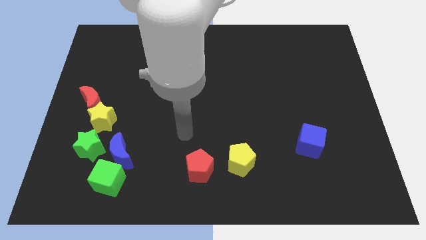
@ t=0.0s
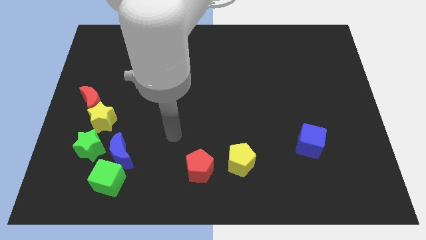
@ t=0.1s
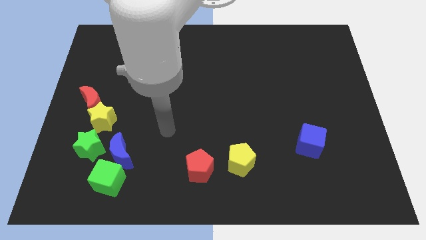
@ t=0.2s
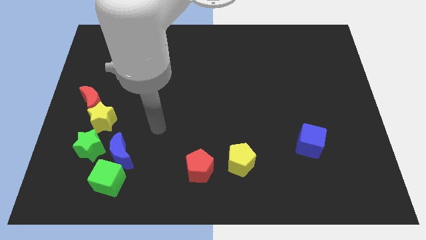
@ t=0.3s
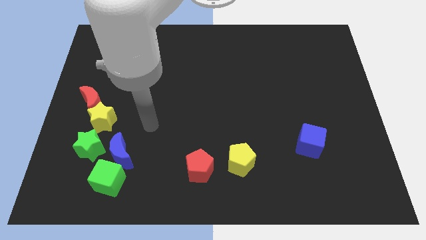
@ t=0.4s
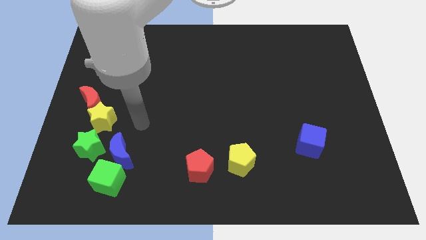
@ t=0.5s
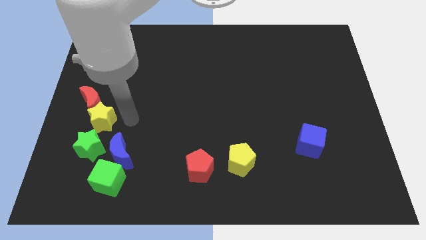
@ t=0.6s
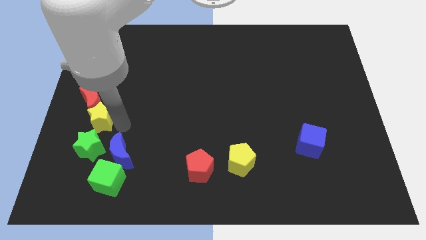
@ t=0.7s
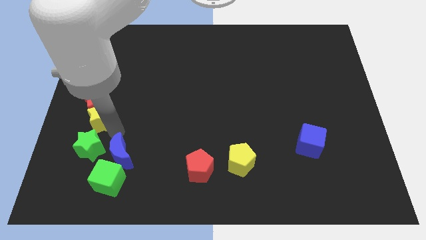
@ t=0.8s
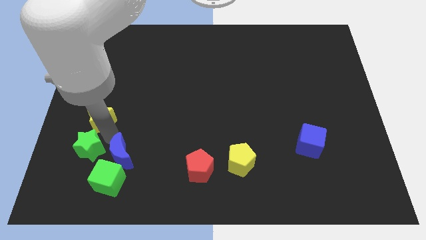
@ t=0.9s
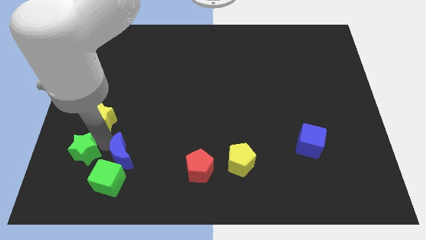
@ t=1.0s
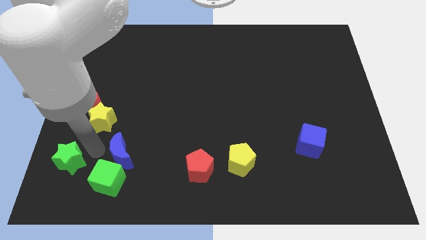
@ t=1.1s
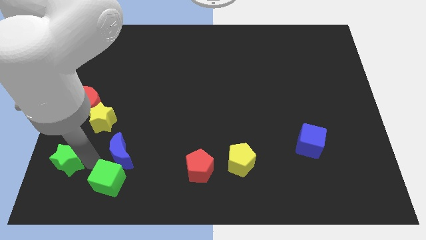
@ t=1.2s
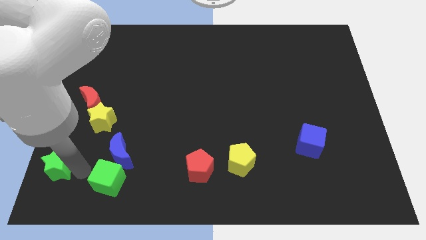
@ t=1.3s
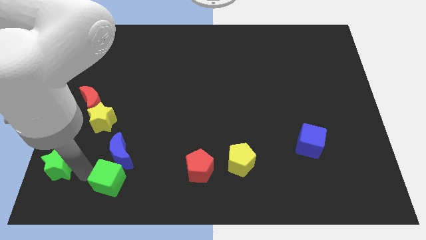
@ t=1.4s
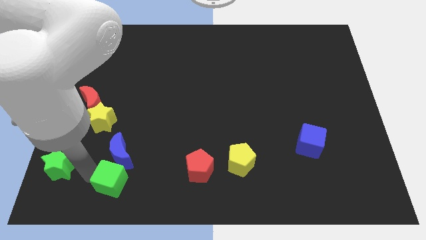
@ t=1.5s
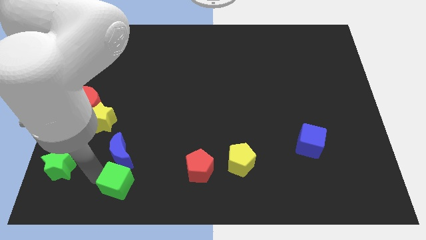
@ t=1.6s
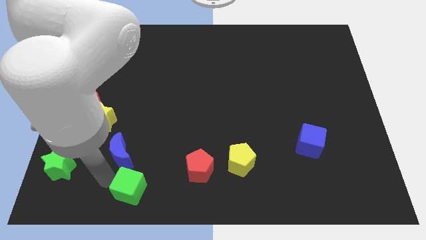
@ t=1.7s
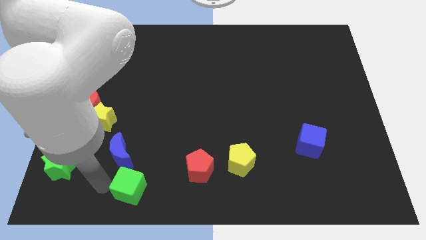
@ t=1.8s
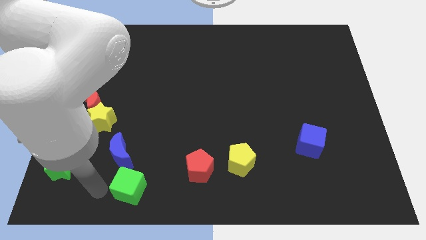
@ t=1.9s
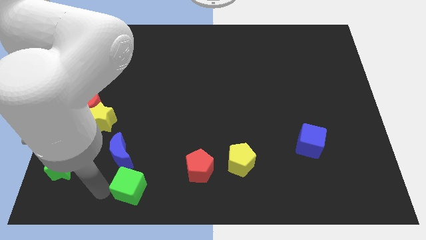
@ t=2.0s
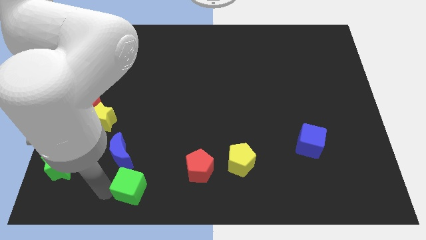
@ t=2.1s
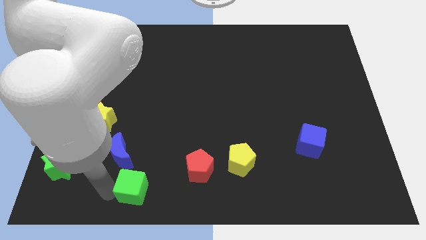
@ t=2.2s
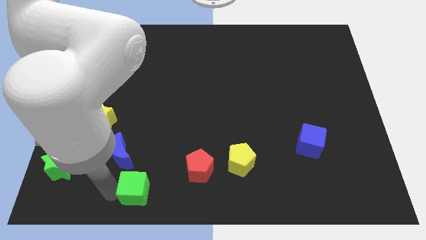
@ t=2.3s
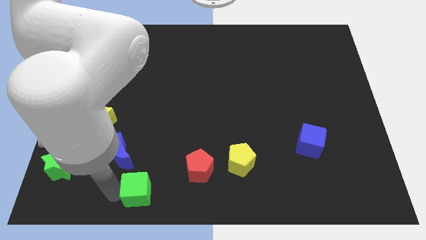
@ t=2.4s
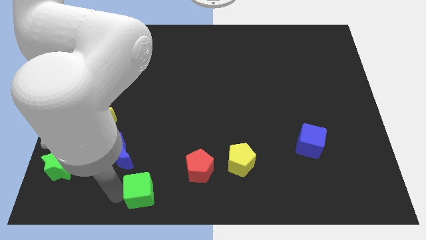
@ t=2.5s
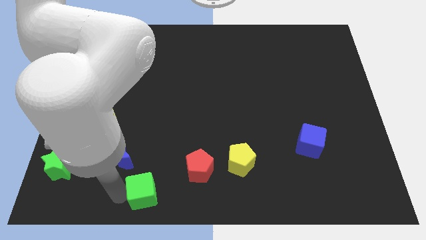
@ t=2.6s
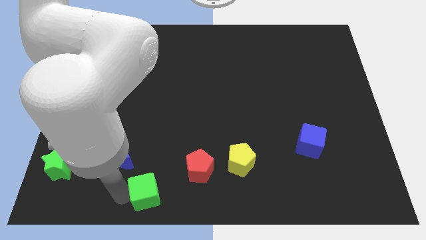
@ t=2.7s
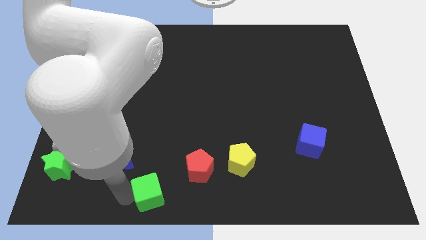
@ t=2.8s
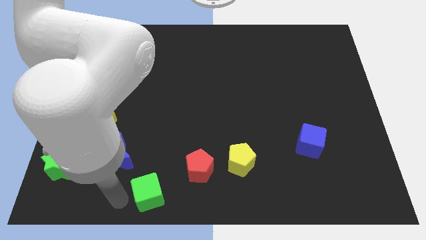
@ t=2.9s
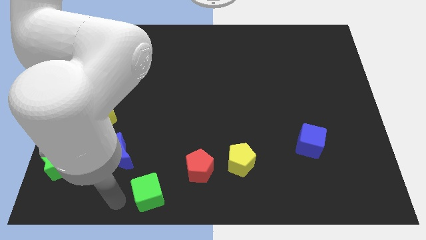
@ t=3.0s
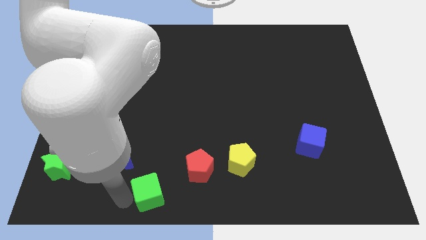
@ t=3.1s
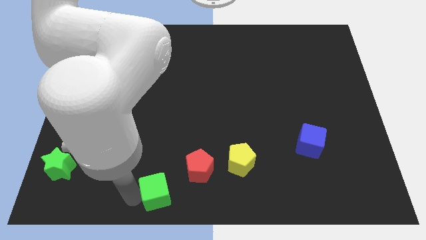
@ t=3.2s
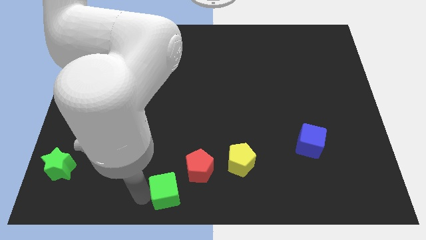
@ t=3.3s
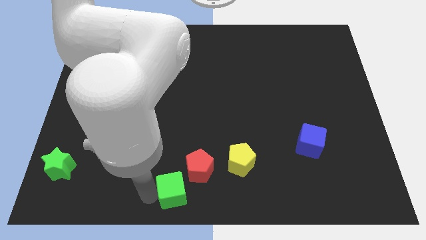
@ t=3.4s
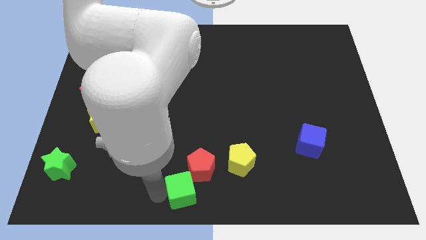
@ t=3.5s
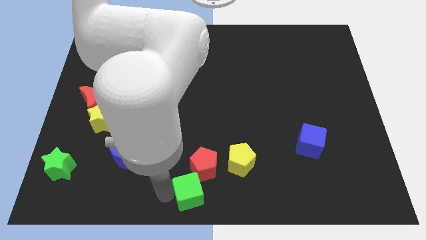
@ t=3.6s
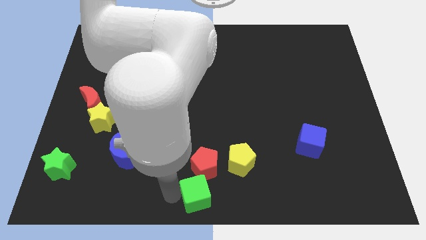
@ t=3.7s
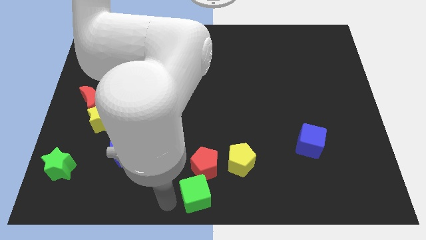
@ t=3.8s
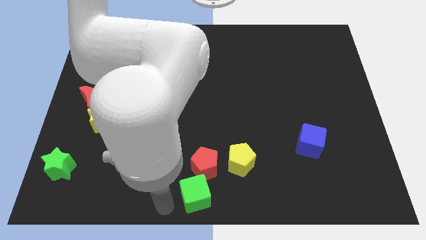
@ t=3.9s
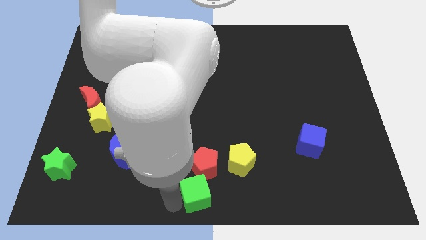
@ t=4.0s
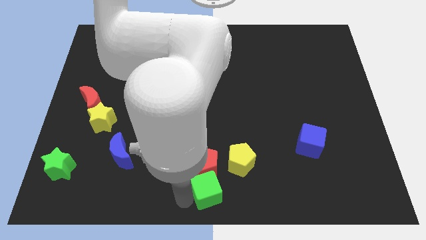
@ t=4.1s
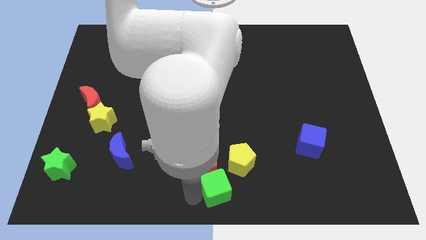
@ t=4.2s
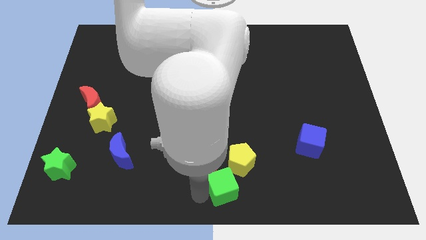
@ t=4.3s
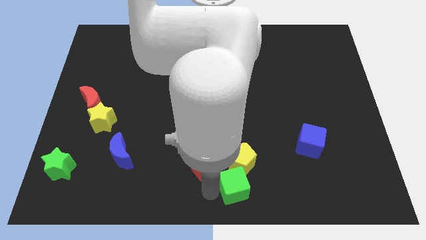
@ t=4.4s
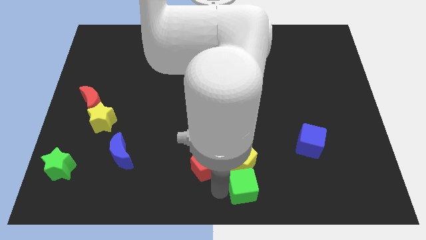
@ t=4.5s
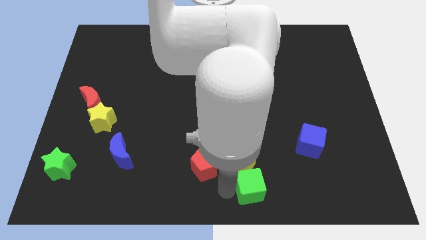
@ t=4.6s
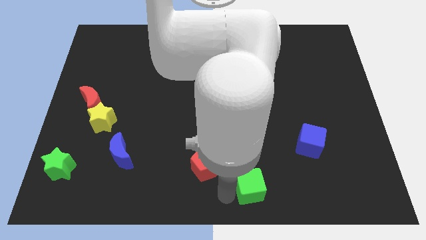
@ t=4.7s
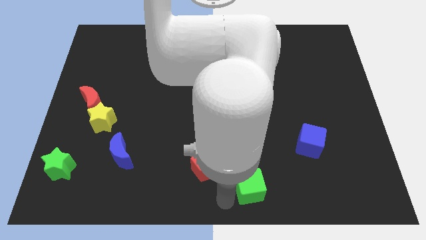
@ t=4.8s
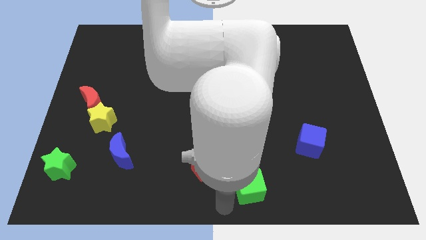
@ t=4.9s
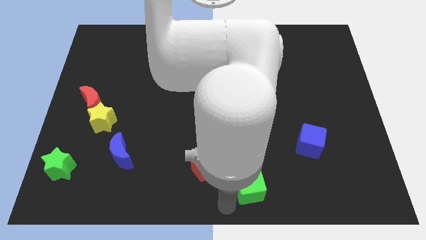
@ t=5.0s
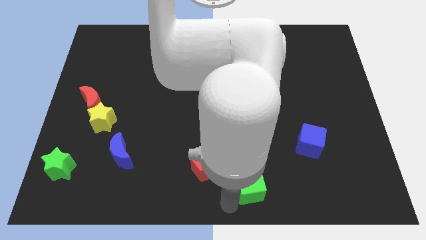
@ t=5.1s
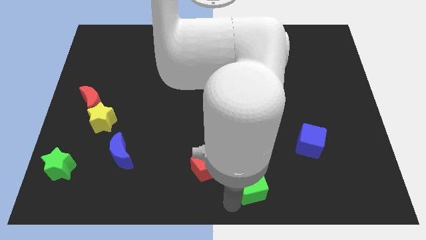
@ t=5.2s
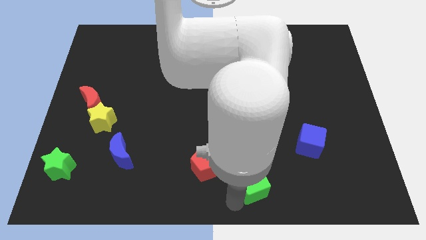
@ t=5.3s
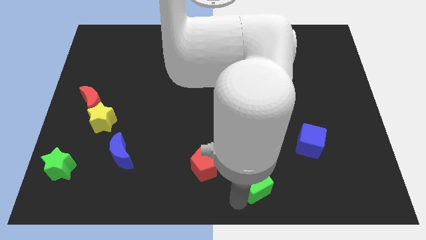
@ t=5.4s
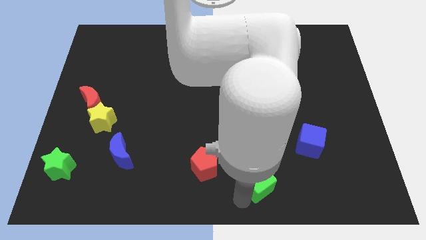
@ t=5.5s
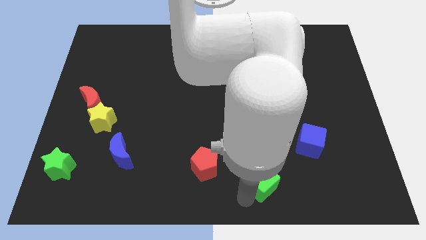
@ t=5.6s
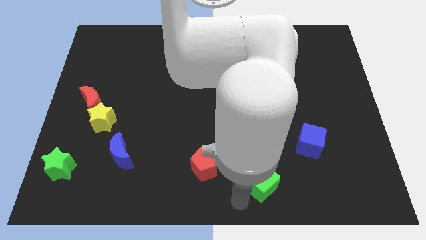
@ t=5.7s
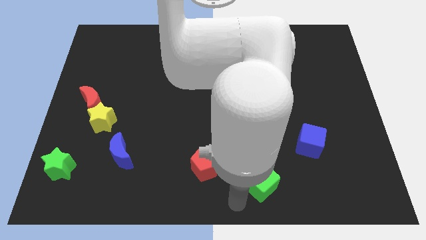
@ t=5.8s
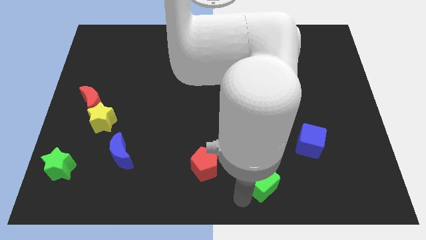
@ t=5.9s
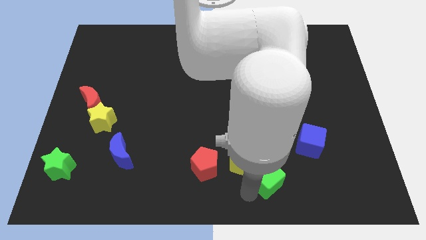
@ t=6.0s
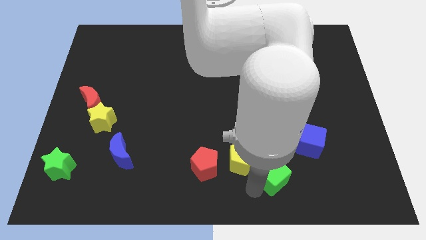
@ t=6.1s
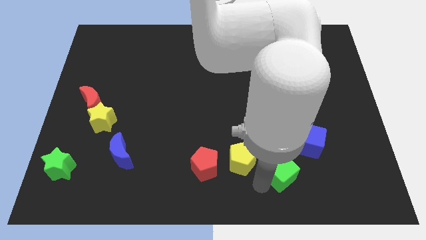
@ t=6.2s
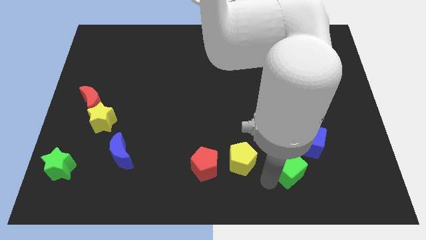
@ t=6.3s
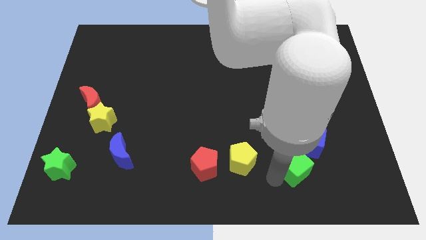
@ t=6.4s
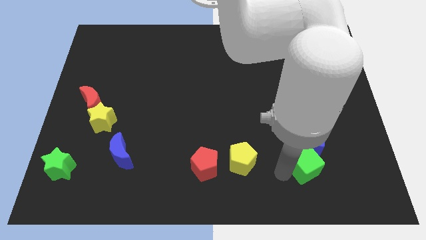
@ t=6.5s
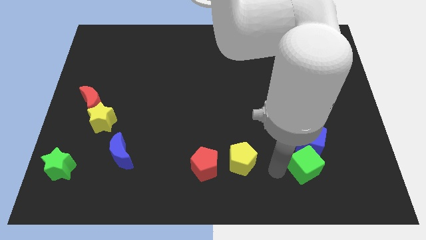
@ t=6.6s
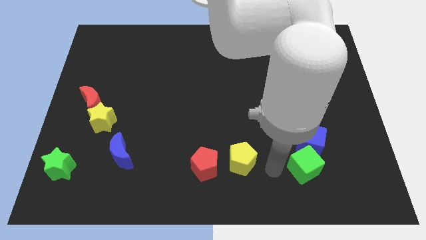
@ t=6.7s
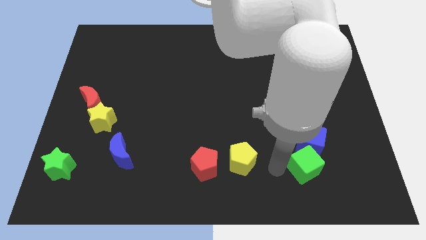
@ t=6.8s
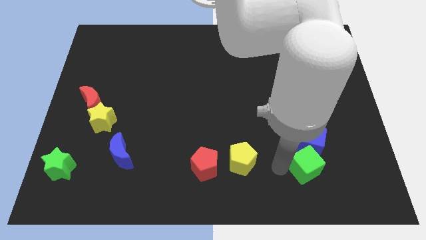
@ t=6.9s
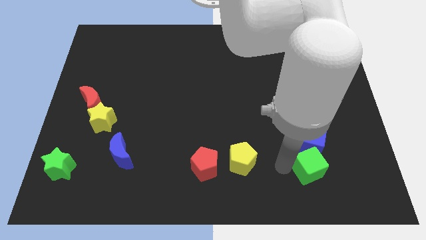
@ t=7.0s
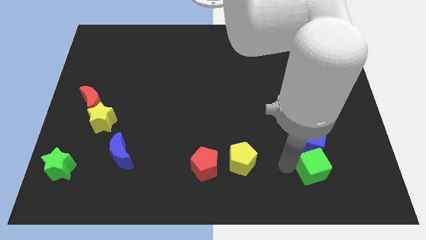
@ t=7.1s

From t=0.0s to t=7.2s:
put the green cube to the bottom right of the blue cube

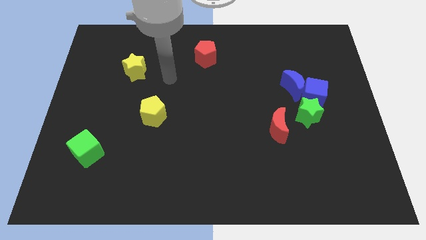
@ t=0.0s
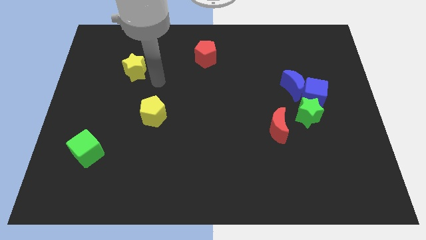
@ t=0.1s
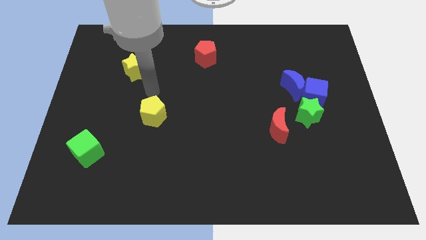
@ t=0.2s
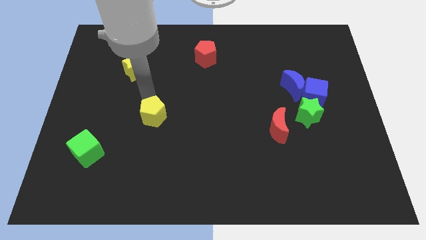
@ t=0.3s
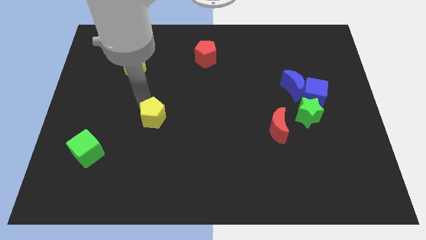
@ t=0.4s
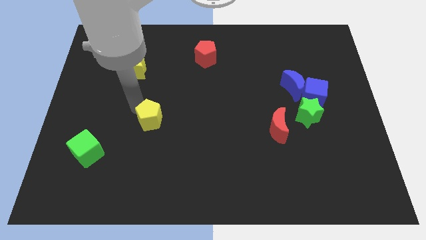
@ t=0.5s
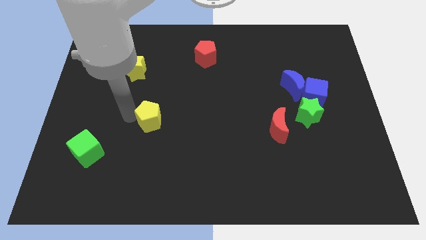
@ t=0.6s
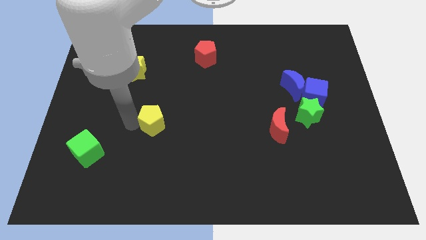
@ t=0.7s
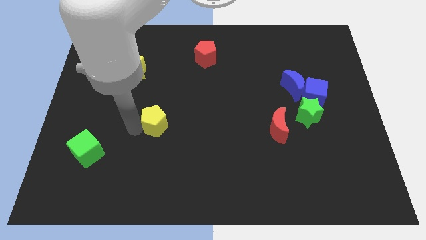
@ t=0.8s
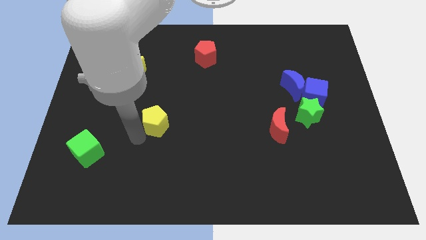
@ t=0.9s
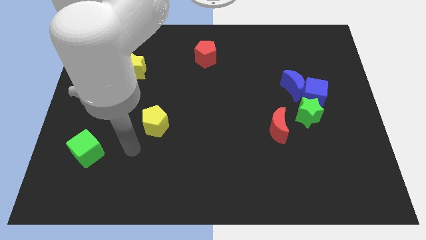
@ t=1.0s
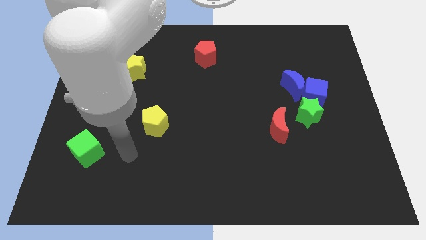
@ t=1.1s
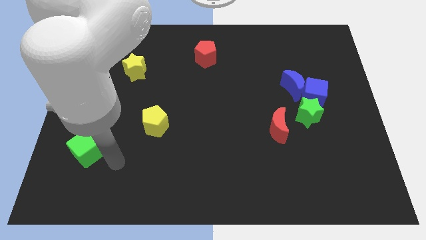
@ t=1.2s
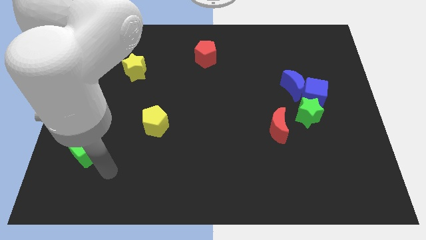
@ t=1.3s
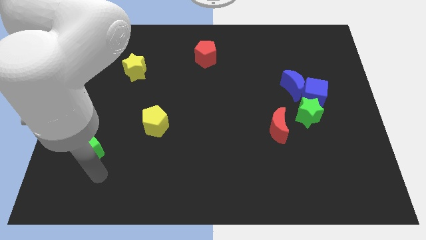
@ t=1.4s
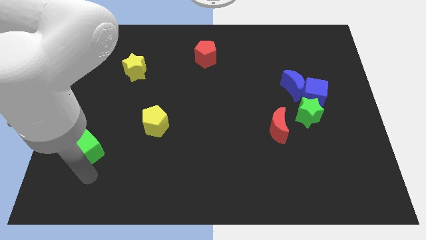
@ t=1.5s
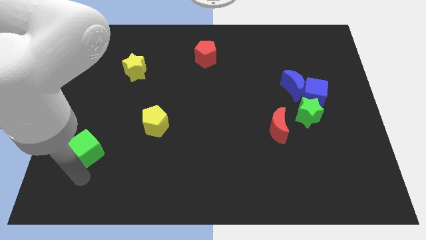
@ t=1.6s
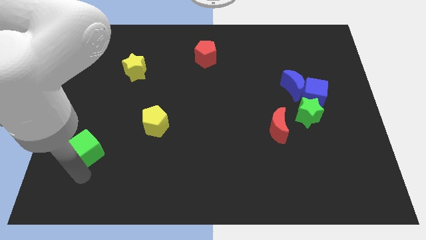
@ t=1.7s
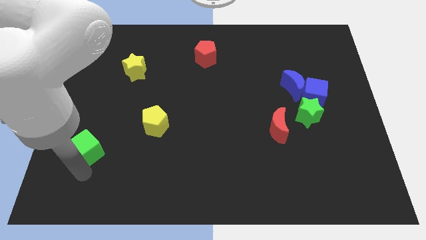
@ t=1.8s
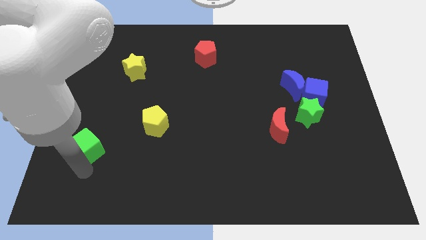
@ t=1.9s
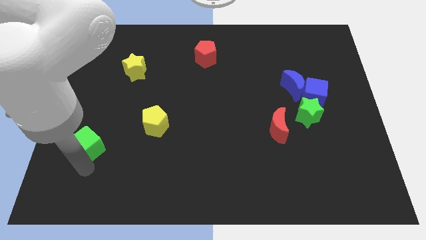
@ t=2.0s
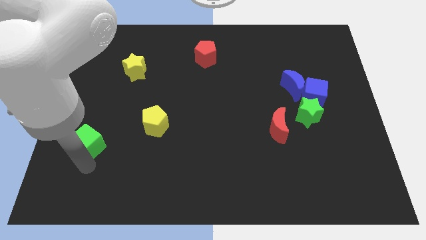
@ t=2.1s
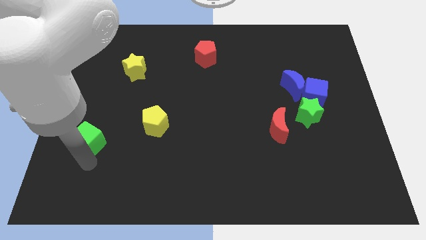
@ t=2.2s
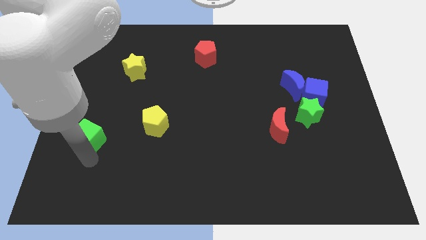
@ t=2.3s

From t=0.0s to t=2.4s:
slide the green cube to the left of the yellow pentagon
